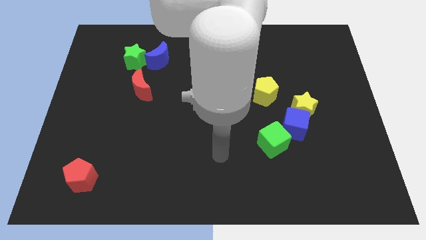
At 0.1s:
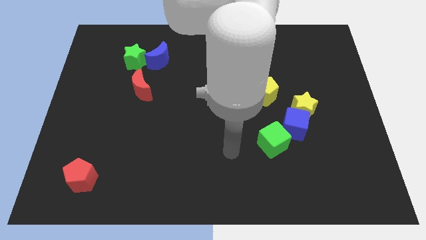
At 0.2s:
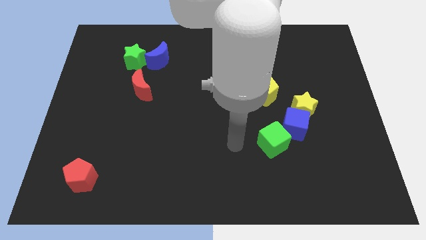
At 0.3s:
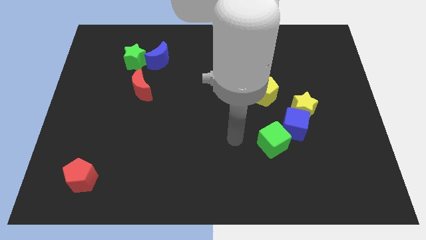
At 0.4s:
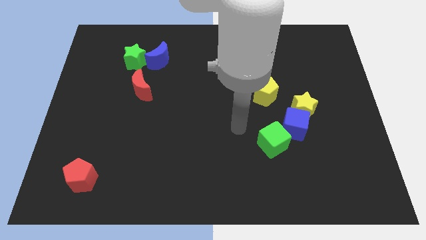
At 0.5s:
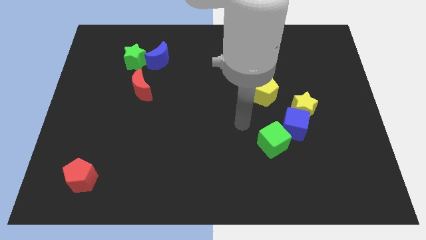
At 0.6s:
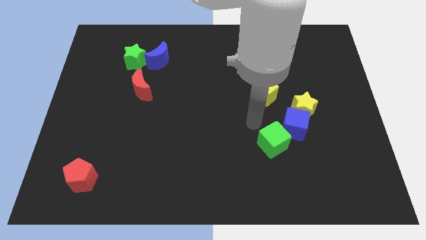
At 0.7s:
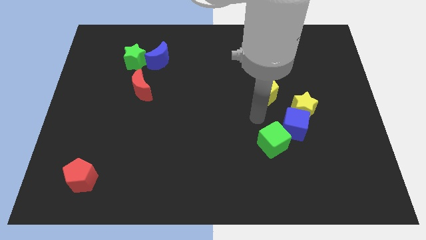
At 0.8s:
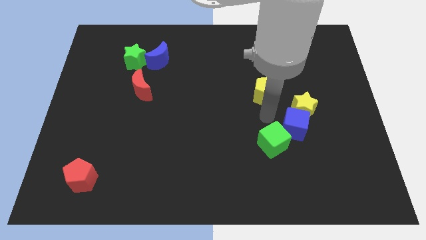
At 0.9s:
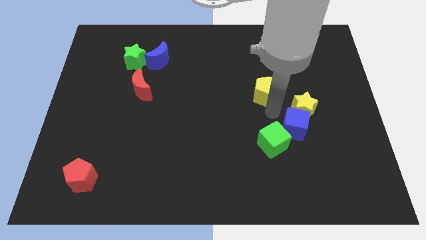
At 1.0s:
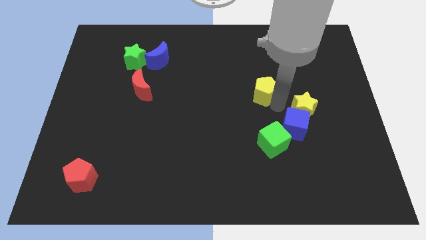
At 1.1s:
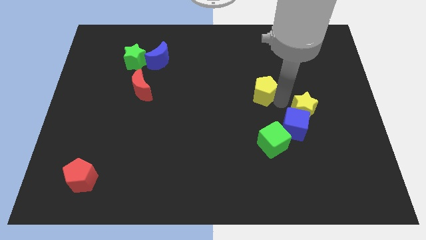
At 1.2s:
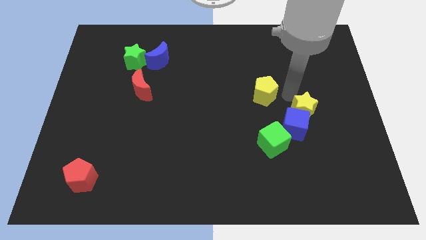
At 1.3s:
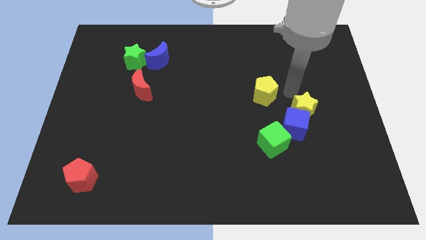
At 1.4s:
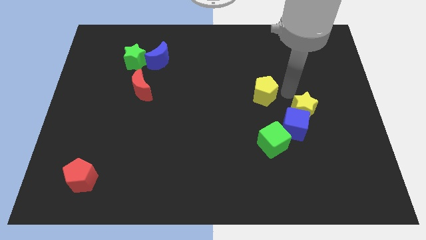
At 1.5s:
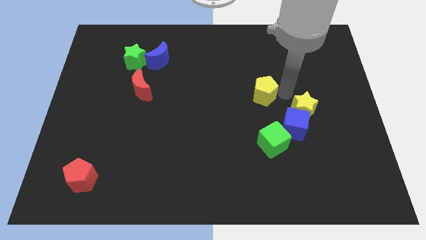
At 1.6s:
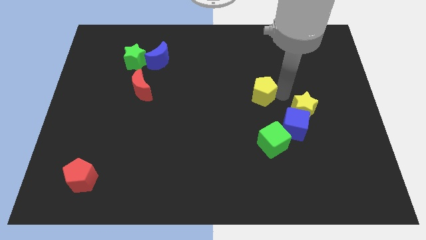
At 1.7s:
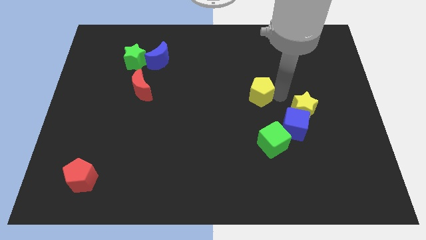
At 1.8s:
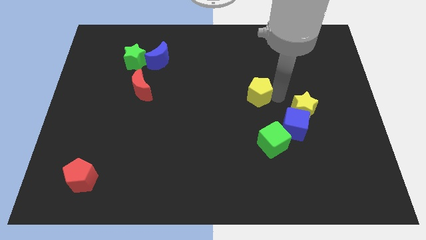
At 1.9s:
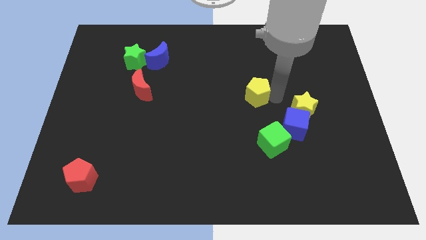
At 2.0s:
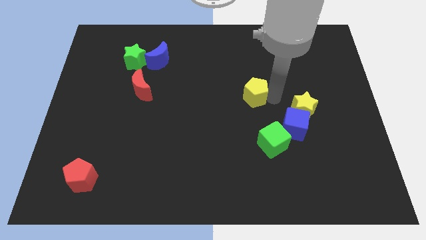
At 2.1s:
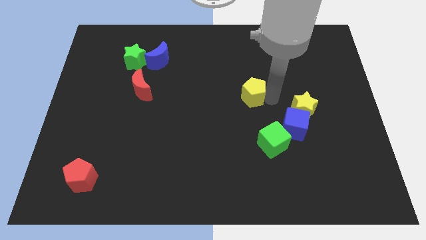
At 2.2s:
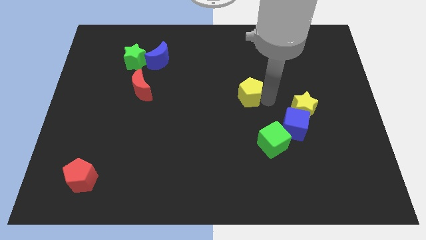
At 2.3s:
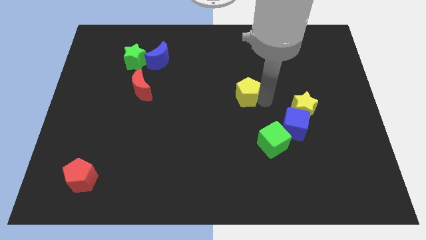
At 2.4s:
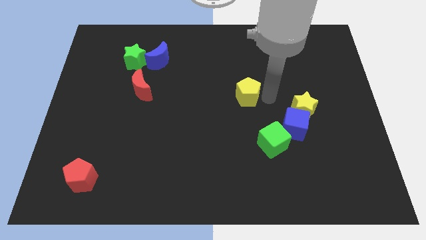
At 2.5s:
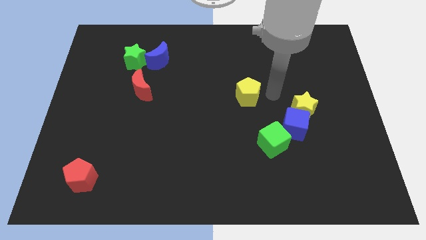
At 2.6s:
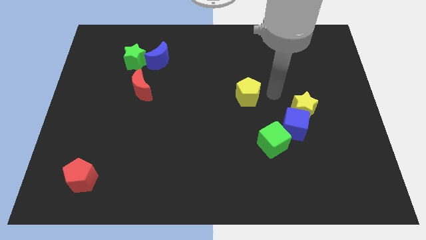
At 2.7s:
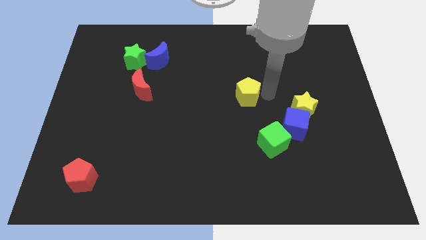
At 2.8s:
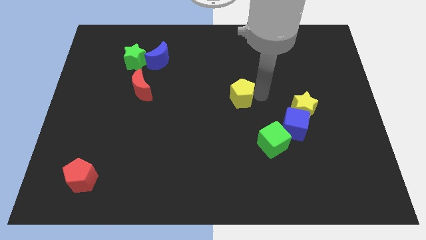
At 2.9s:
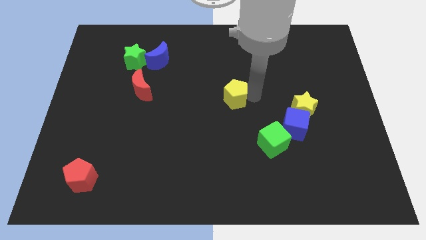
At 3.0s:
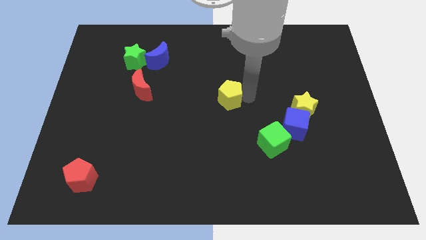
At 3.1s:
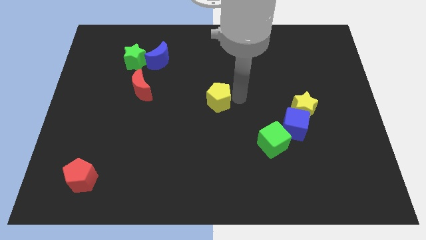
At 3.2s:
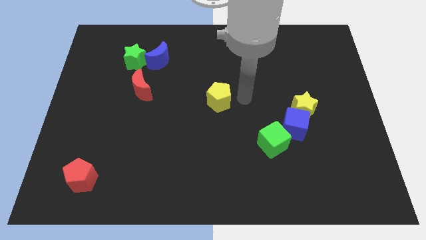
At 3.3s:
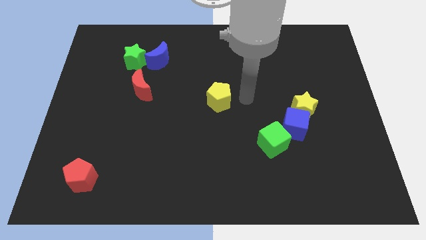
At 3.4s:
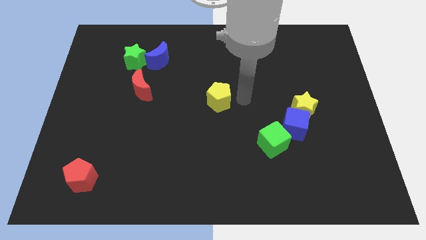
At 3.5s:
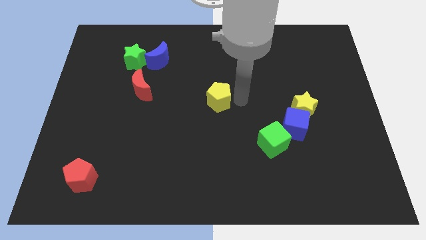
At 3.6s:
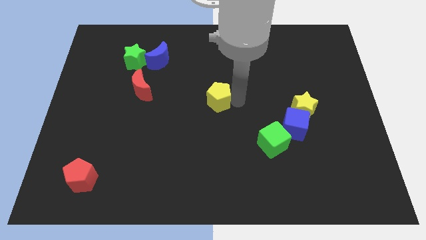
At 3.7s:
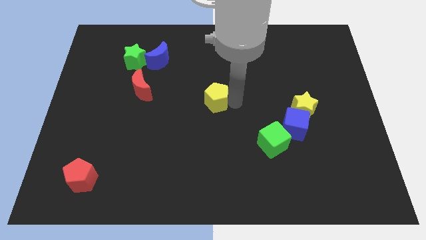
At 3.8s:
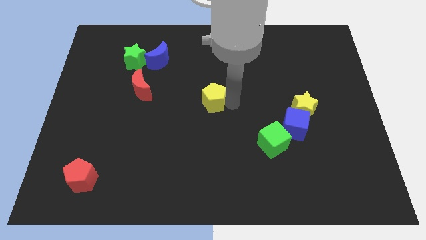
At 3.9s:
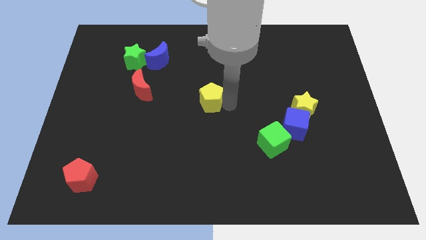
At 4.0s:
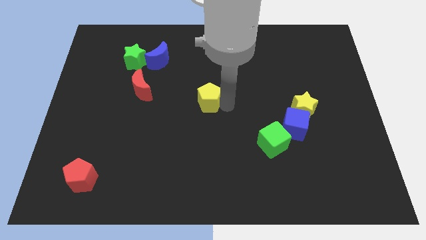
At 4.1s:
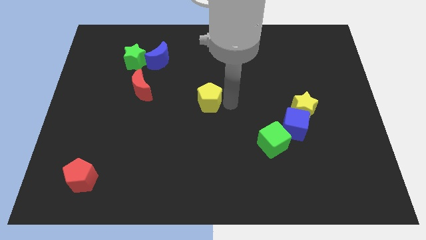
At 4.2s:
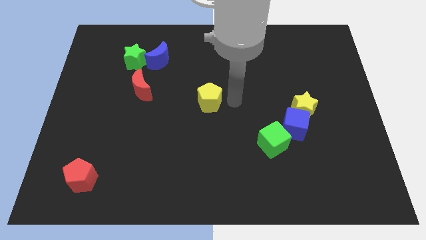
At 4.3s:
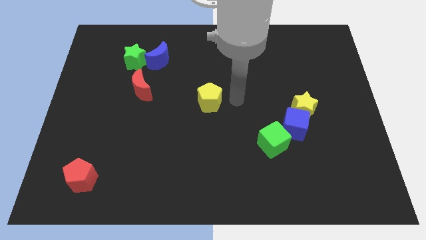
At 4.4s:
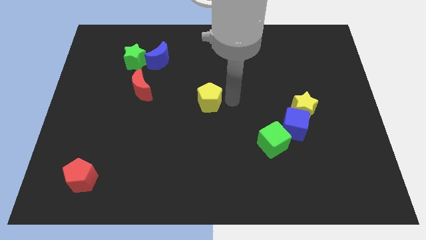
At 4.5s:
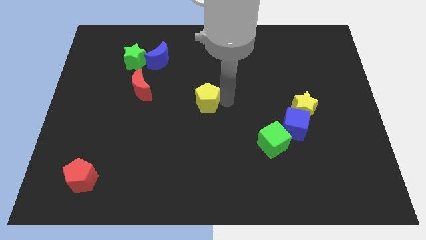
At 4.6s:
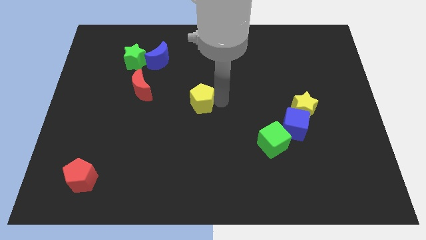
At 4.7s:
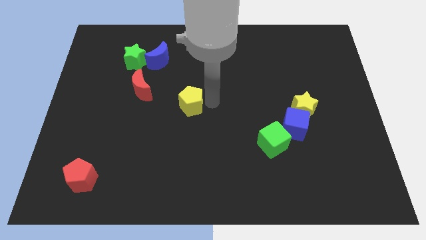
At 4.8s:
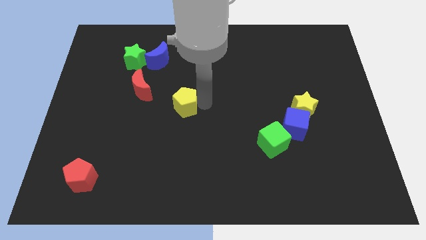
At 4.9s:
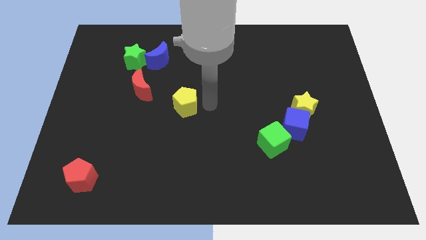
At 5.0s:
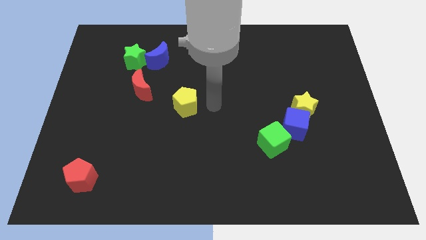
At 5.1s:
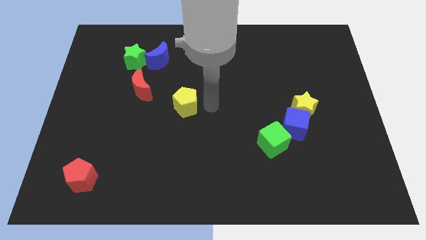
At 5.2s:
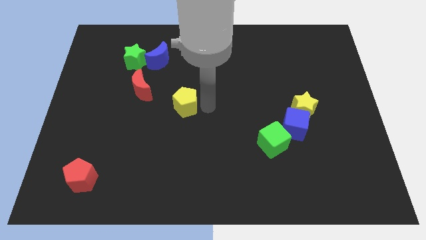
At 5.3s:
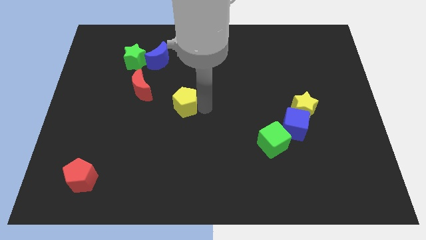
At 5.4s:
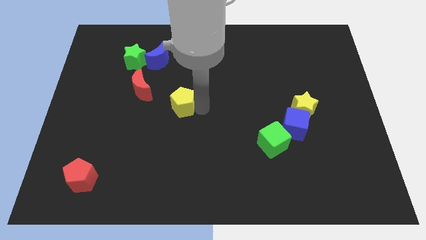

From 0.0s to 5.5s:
push the yellow pentagon diagonally down and to the right of the red moon
